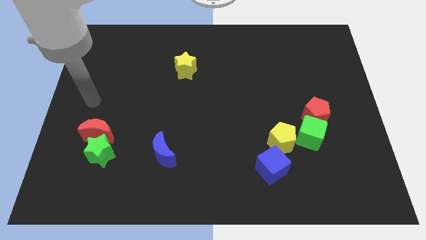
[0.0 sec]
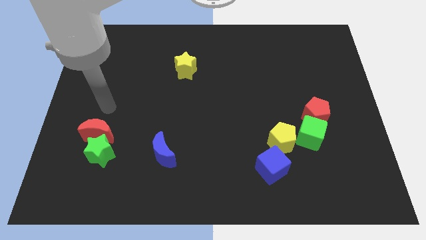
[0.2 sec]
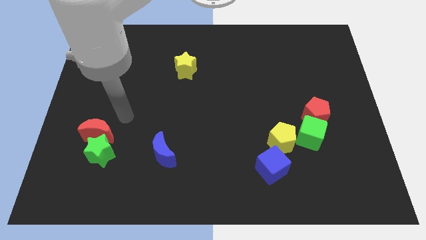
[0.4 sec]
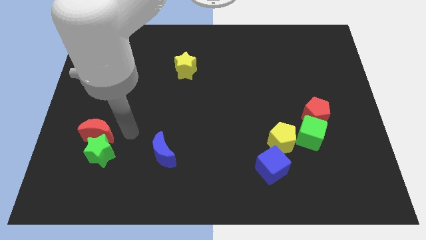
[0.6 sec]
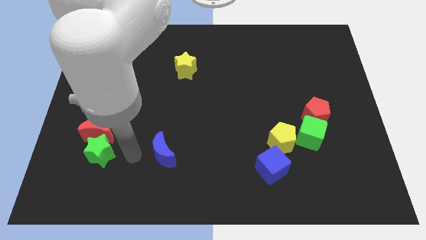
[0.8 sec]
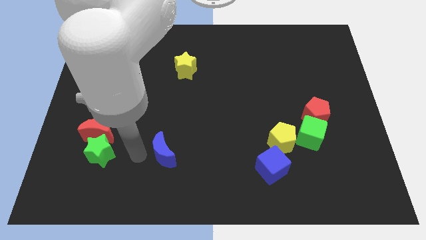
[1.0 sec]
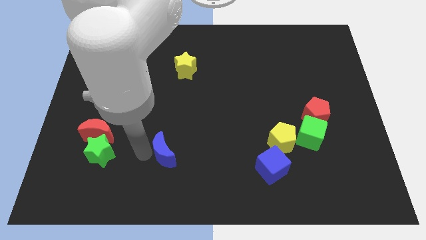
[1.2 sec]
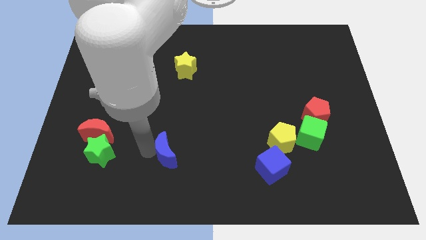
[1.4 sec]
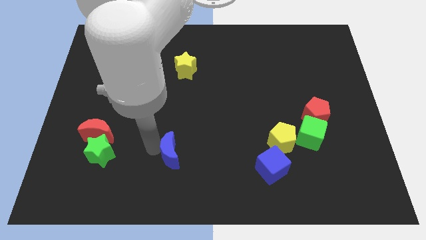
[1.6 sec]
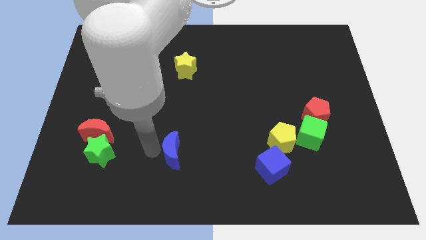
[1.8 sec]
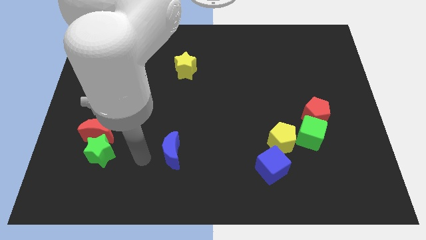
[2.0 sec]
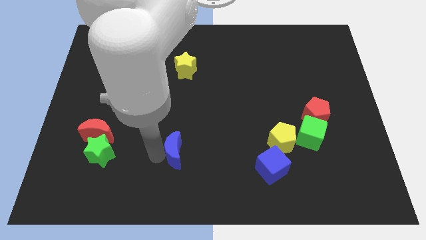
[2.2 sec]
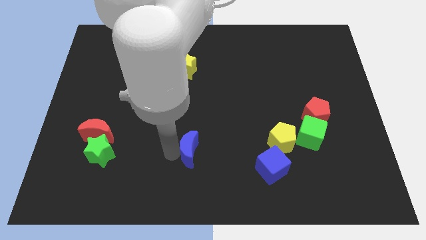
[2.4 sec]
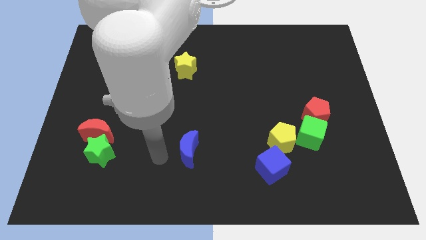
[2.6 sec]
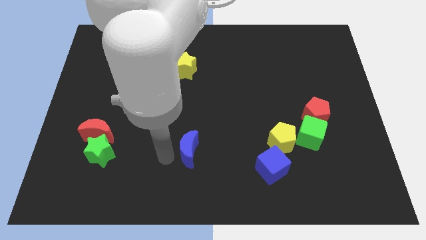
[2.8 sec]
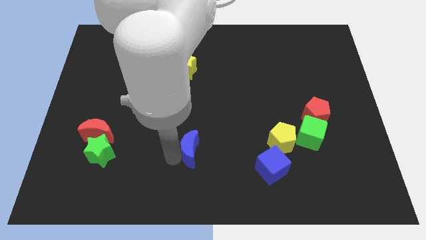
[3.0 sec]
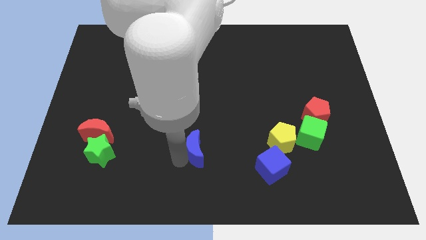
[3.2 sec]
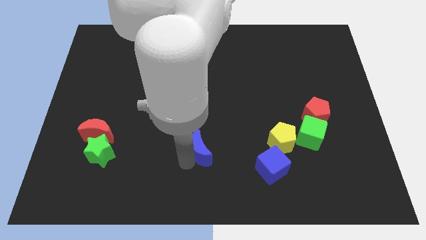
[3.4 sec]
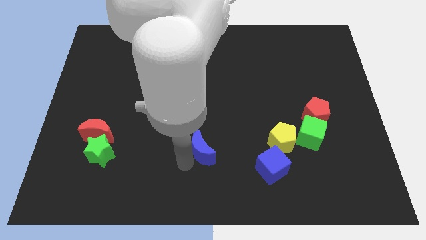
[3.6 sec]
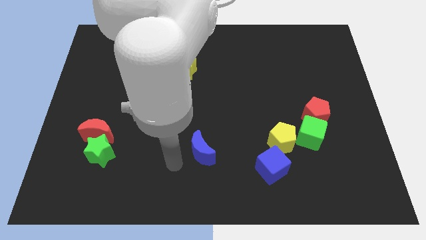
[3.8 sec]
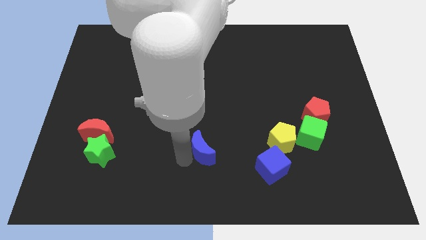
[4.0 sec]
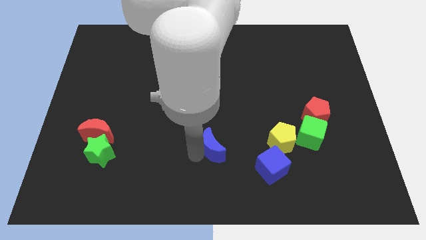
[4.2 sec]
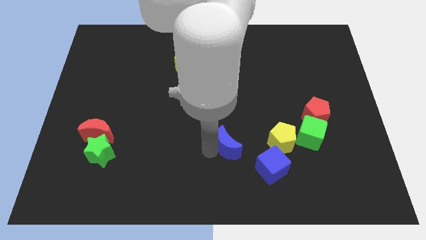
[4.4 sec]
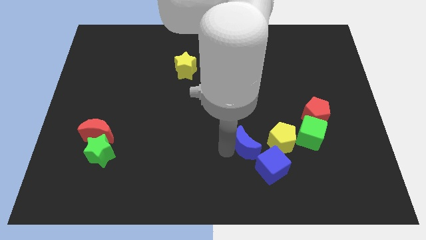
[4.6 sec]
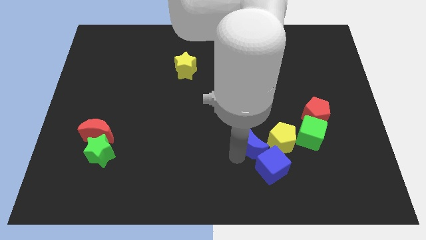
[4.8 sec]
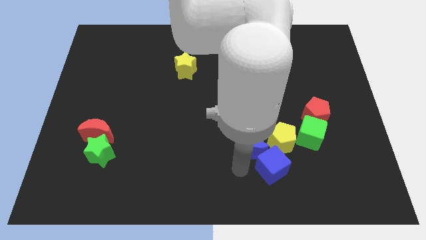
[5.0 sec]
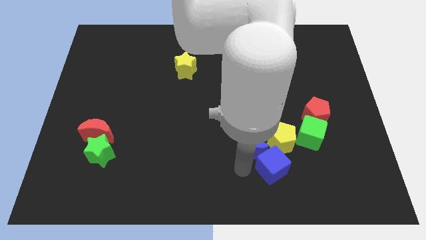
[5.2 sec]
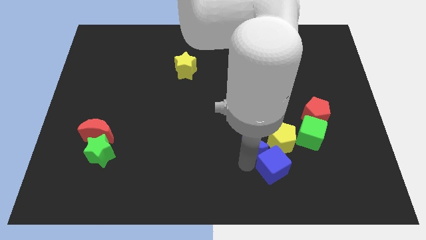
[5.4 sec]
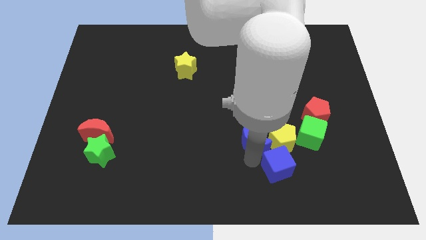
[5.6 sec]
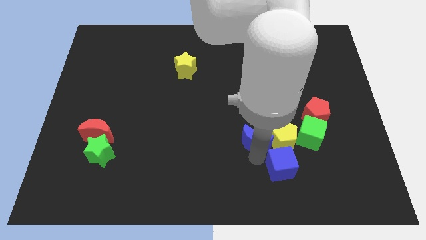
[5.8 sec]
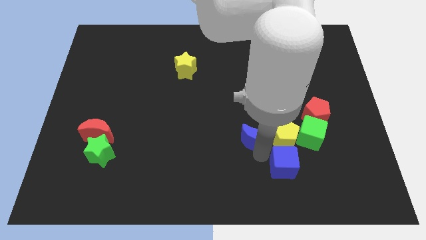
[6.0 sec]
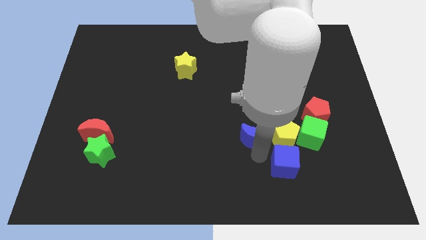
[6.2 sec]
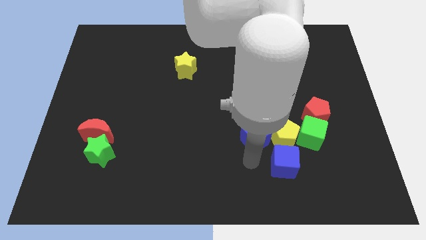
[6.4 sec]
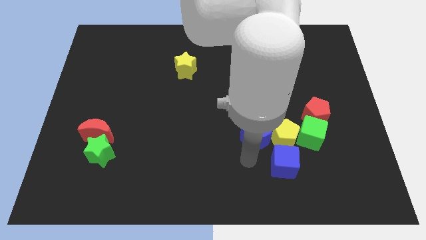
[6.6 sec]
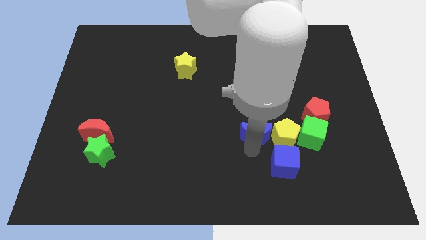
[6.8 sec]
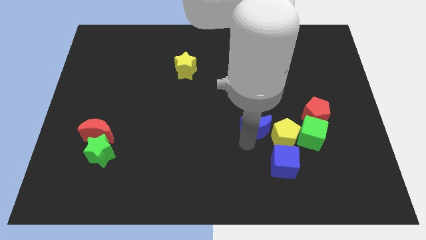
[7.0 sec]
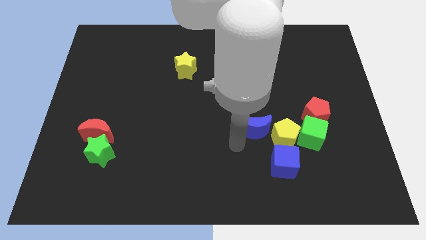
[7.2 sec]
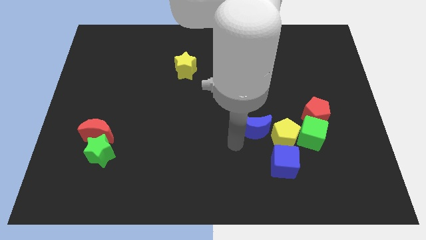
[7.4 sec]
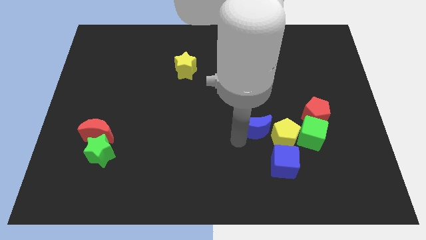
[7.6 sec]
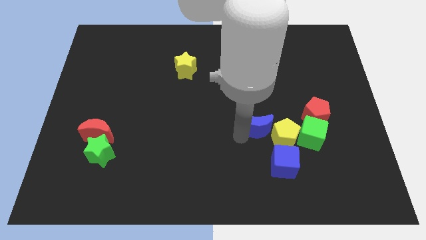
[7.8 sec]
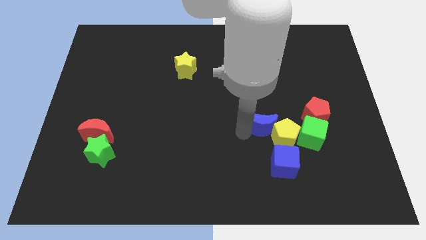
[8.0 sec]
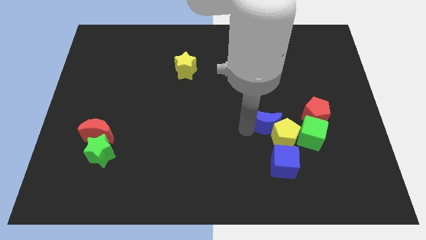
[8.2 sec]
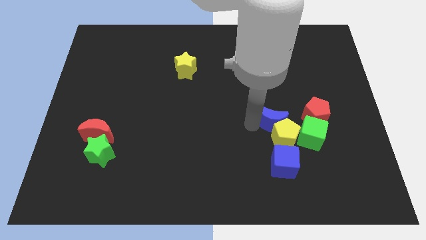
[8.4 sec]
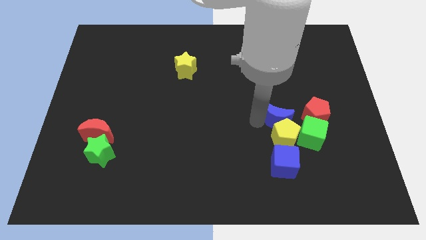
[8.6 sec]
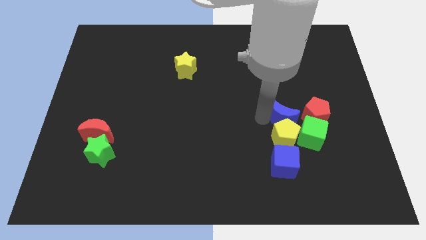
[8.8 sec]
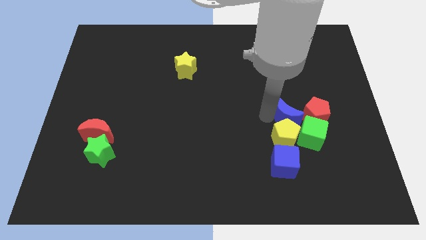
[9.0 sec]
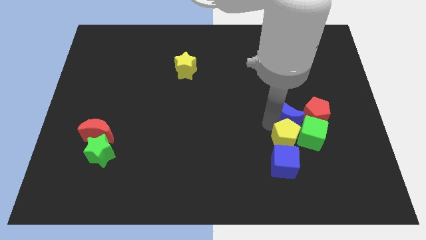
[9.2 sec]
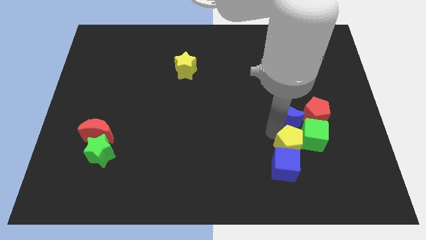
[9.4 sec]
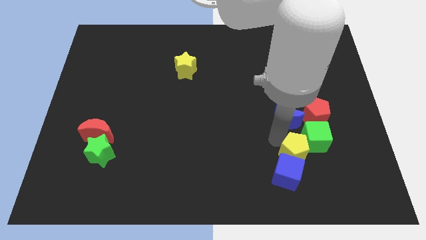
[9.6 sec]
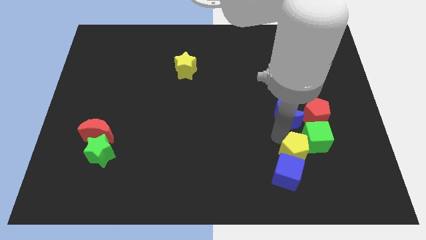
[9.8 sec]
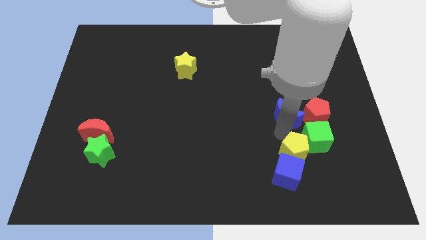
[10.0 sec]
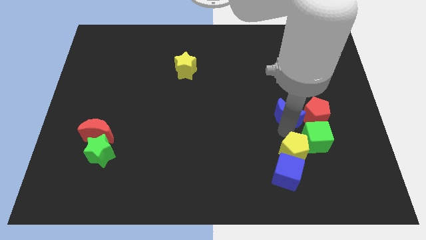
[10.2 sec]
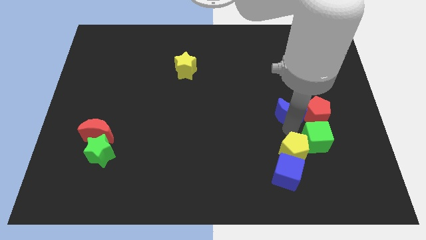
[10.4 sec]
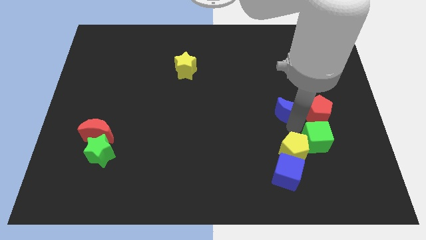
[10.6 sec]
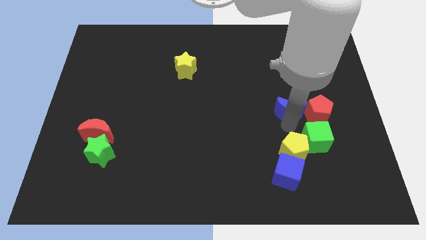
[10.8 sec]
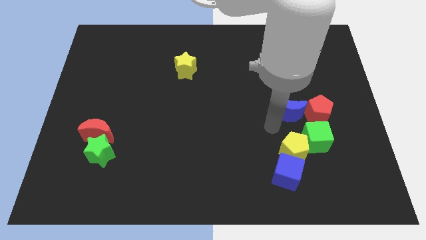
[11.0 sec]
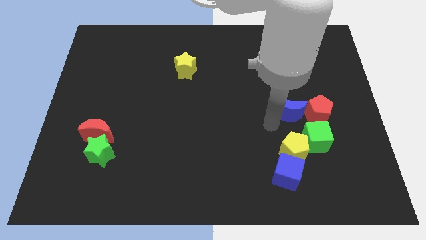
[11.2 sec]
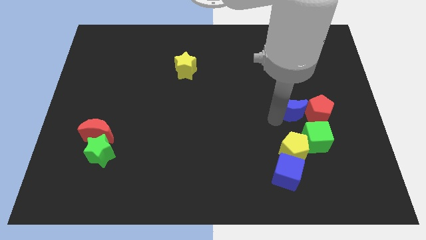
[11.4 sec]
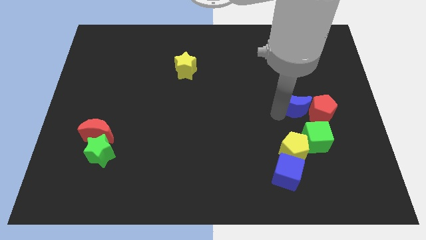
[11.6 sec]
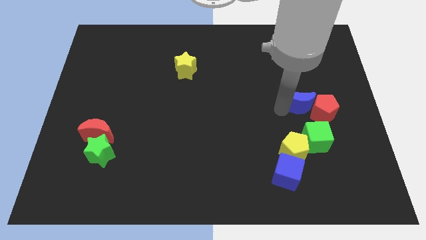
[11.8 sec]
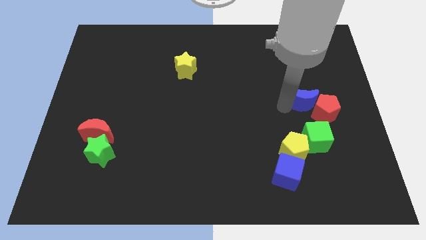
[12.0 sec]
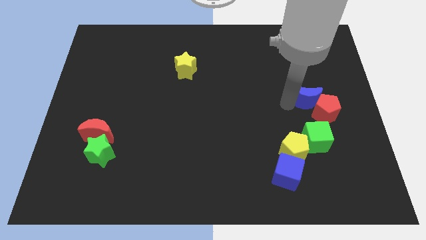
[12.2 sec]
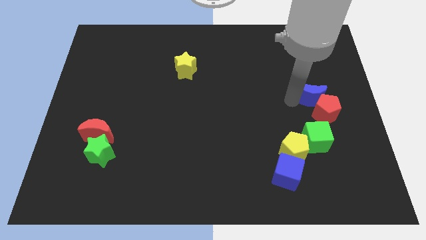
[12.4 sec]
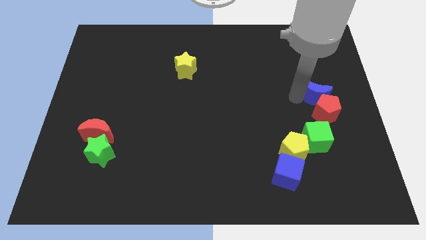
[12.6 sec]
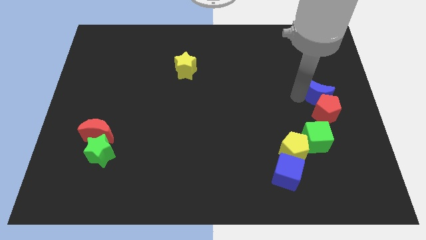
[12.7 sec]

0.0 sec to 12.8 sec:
slide the blue moon to the center right

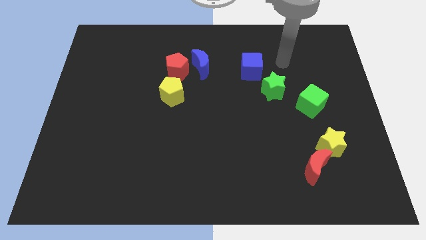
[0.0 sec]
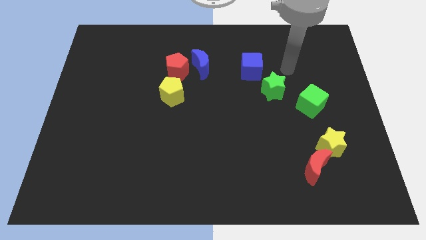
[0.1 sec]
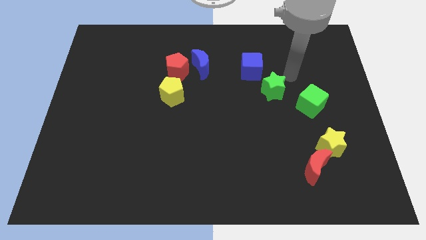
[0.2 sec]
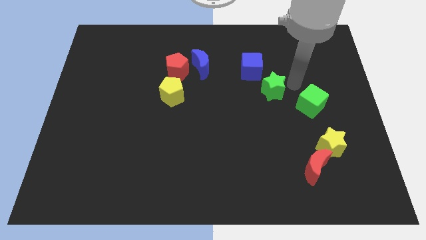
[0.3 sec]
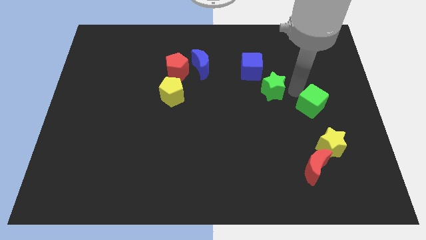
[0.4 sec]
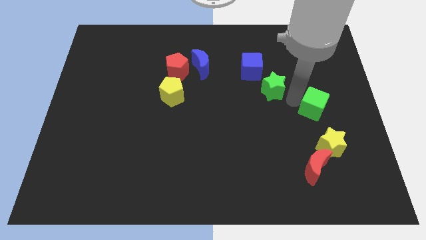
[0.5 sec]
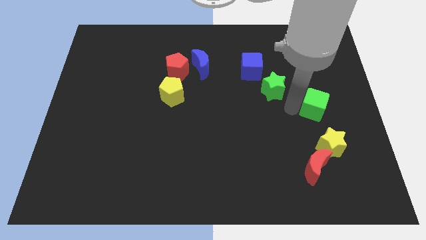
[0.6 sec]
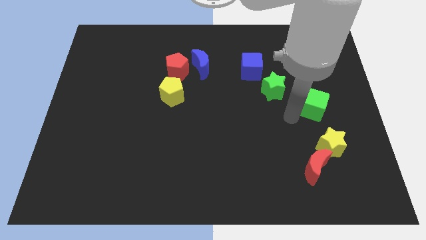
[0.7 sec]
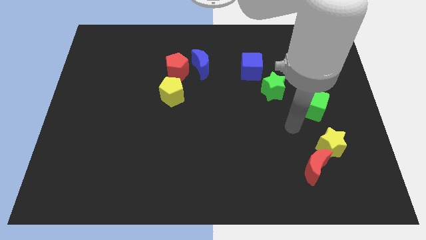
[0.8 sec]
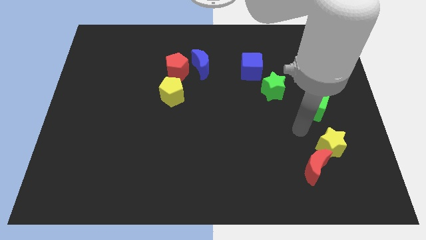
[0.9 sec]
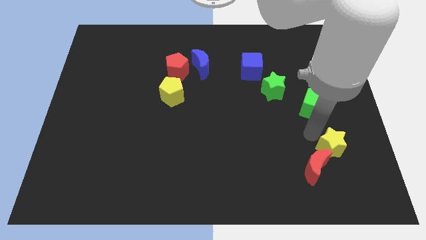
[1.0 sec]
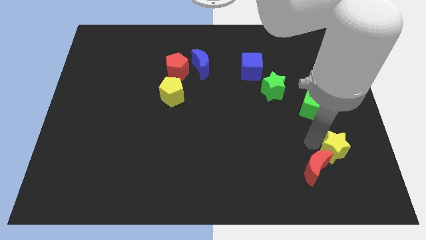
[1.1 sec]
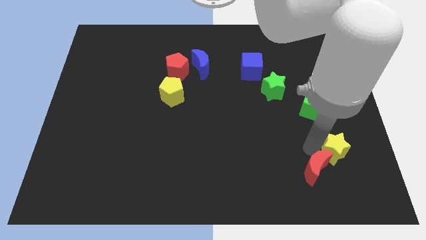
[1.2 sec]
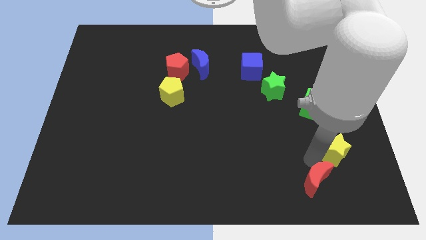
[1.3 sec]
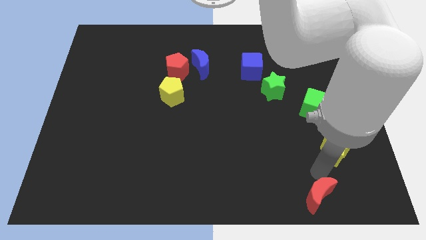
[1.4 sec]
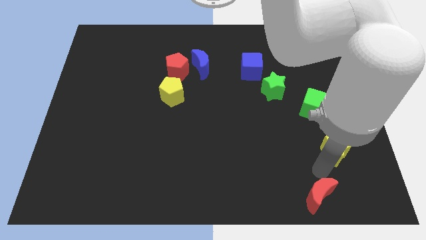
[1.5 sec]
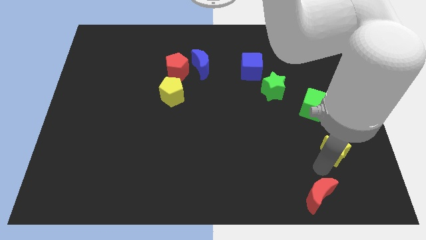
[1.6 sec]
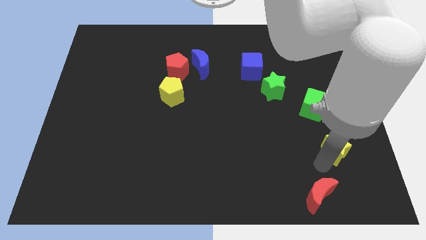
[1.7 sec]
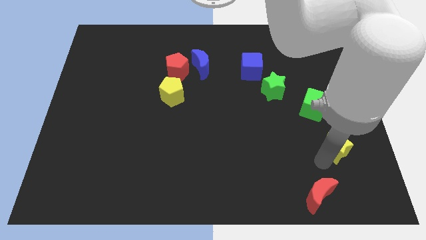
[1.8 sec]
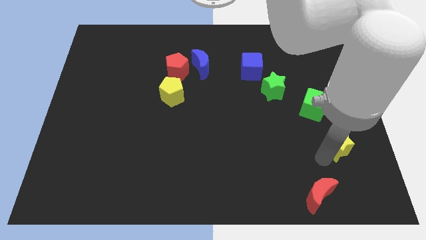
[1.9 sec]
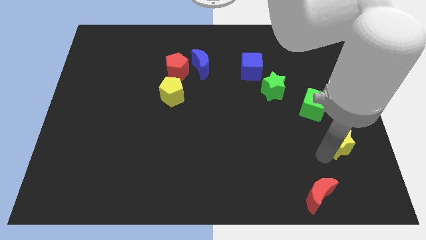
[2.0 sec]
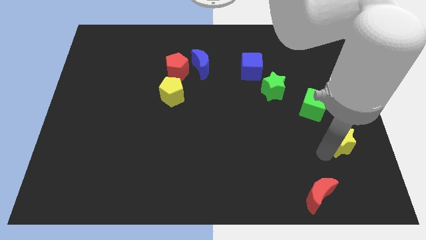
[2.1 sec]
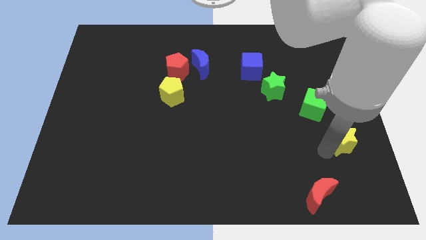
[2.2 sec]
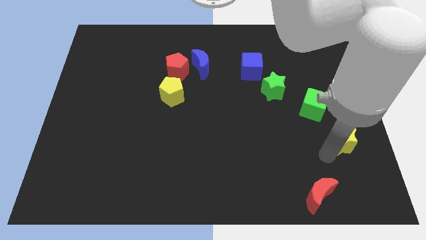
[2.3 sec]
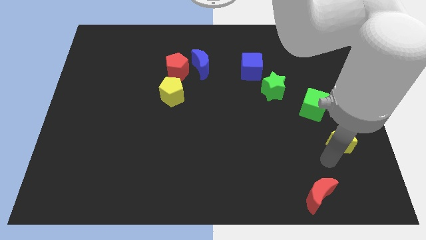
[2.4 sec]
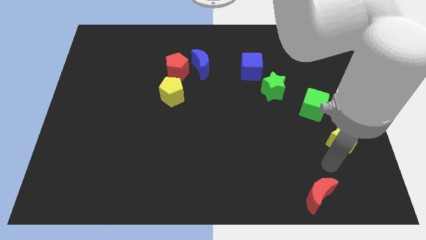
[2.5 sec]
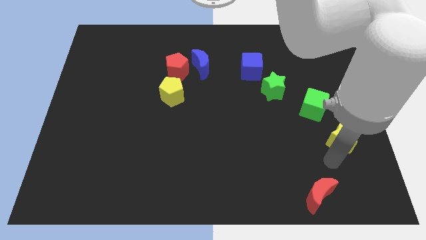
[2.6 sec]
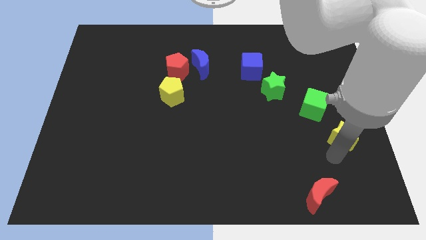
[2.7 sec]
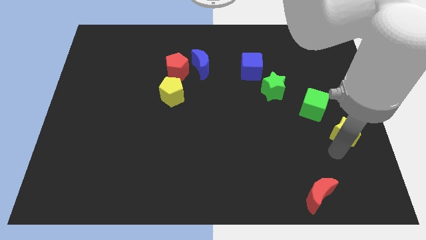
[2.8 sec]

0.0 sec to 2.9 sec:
push the yellow star to the center right
